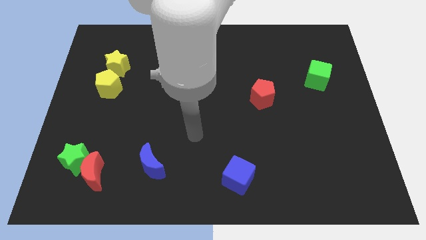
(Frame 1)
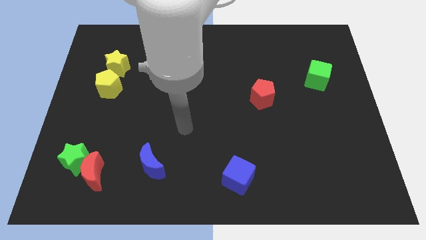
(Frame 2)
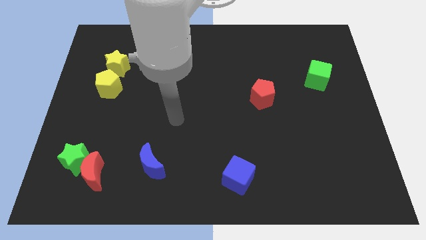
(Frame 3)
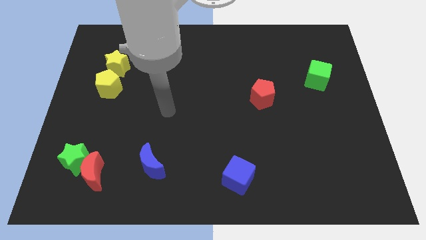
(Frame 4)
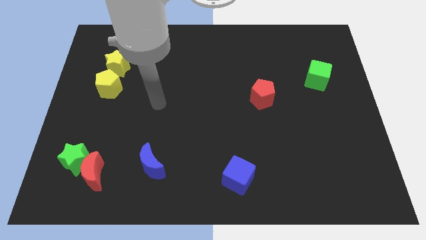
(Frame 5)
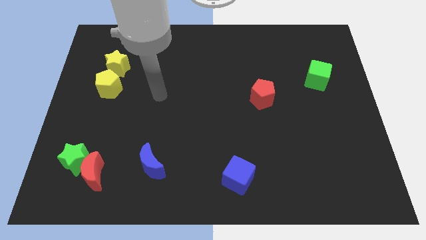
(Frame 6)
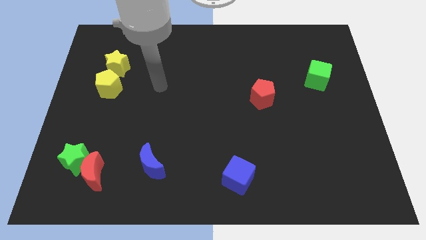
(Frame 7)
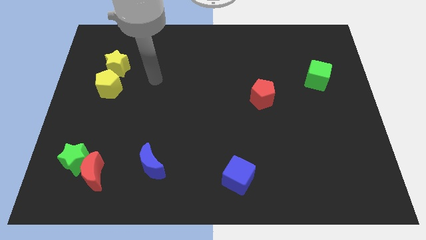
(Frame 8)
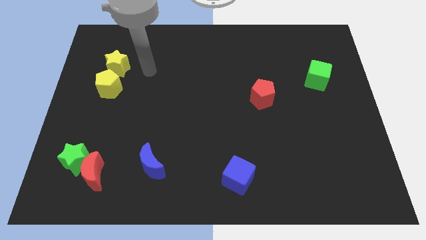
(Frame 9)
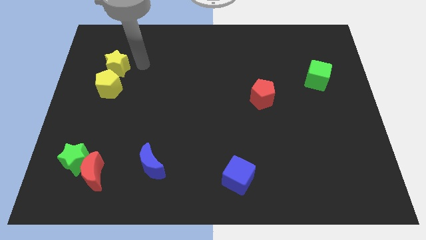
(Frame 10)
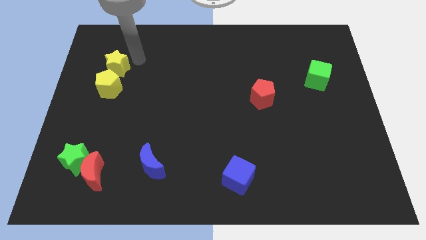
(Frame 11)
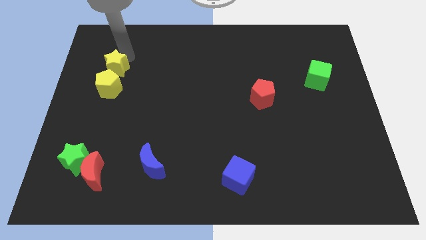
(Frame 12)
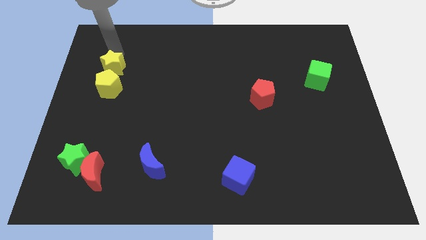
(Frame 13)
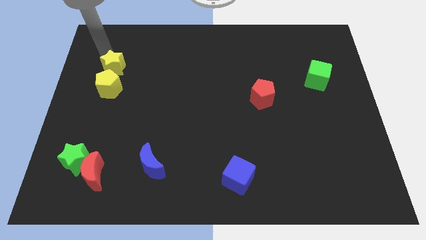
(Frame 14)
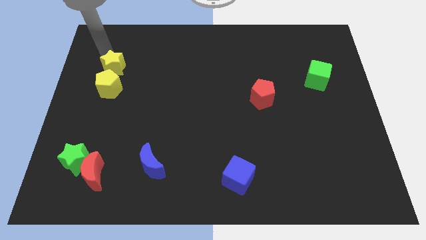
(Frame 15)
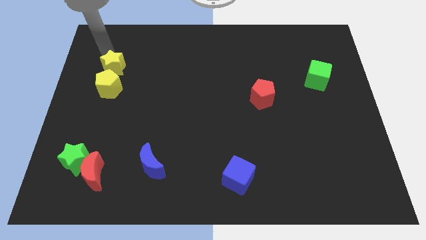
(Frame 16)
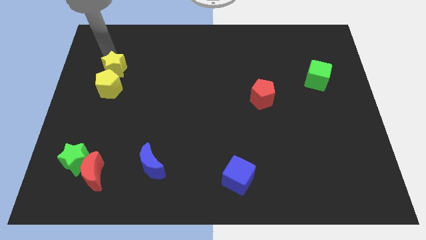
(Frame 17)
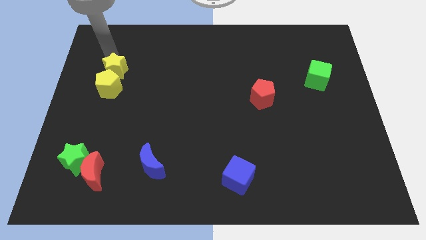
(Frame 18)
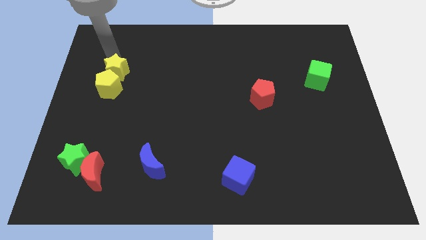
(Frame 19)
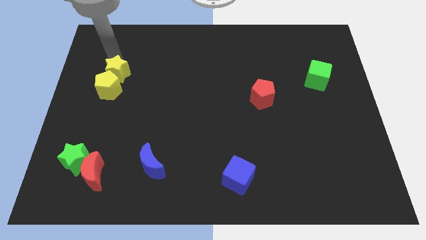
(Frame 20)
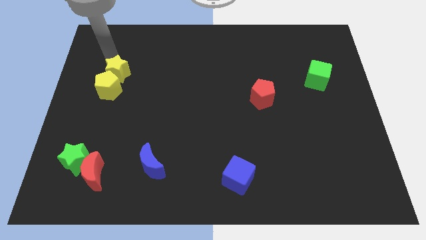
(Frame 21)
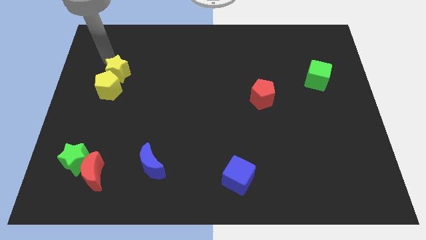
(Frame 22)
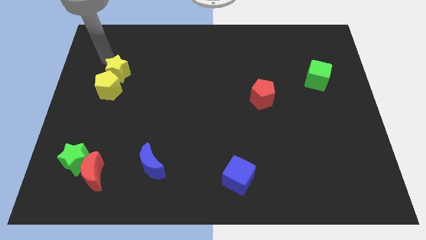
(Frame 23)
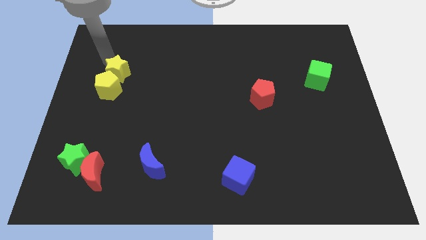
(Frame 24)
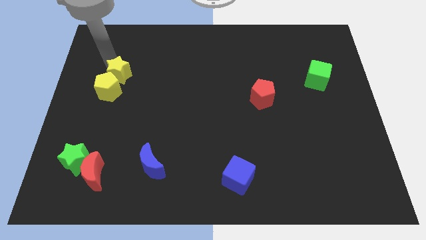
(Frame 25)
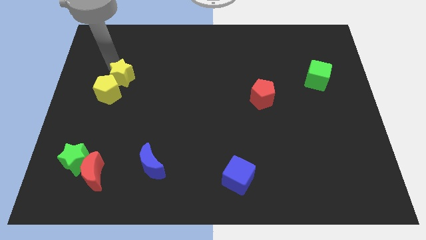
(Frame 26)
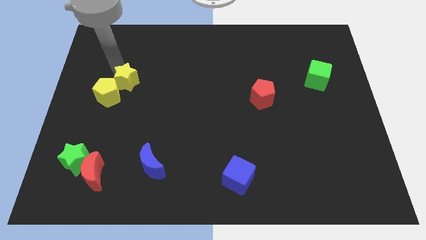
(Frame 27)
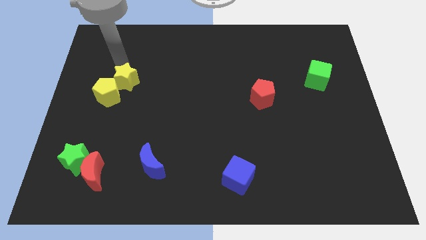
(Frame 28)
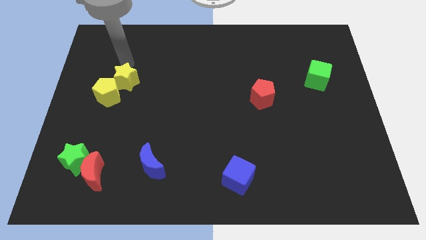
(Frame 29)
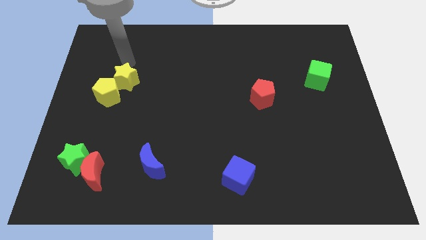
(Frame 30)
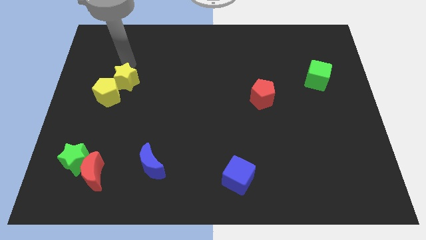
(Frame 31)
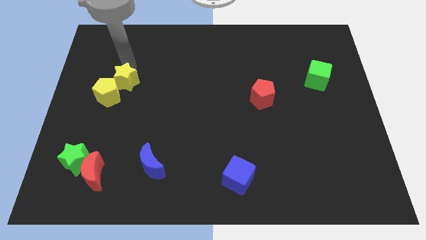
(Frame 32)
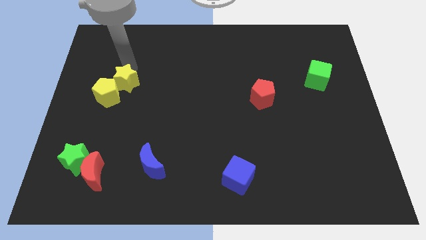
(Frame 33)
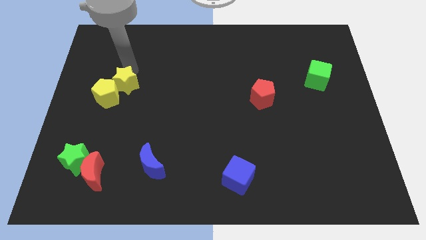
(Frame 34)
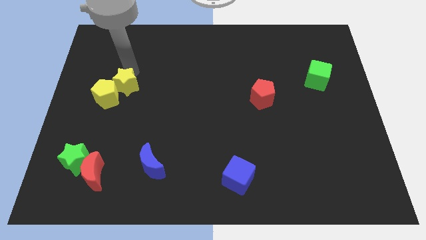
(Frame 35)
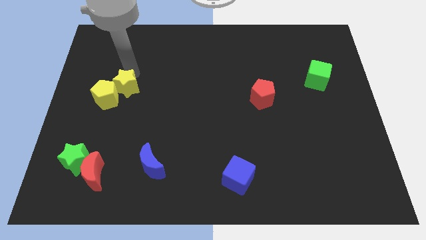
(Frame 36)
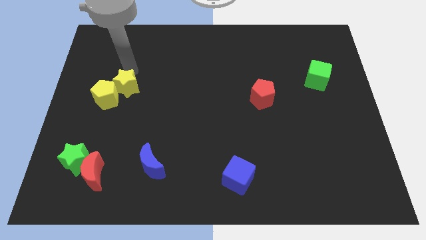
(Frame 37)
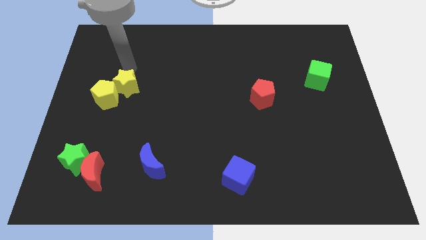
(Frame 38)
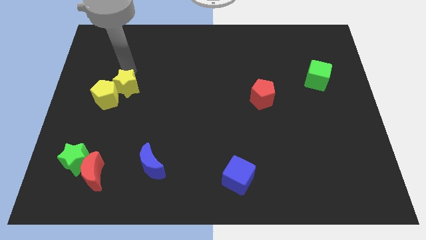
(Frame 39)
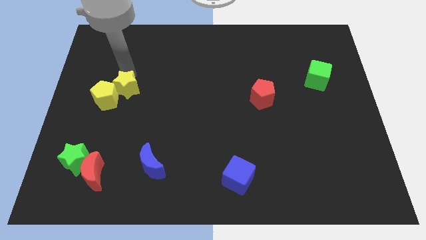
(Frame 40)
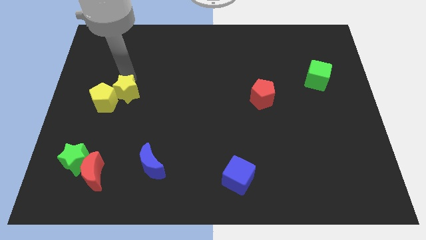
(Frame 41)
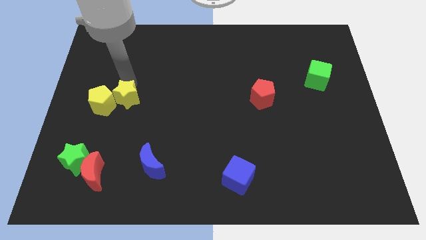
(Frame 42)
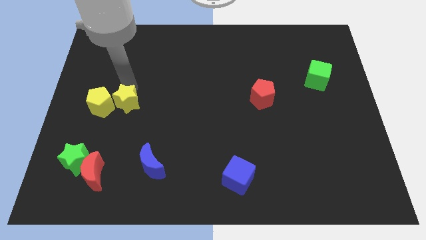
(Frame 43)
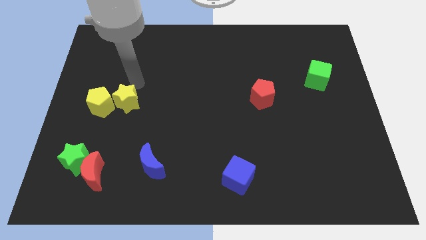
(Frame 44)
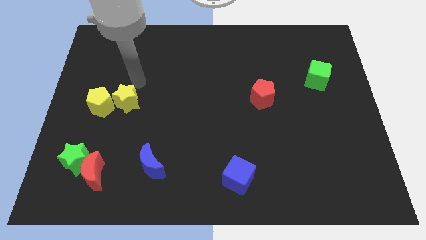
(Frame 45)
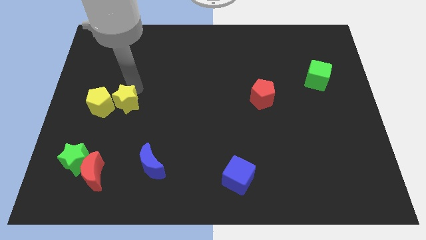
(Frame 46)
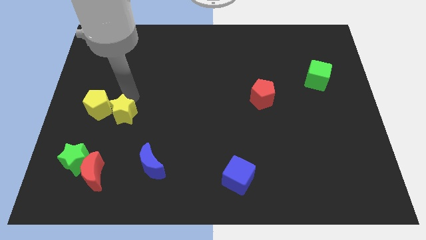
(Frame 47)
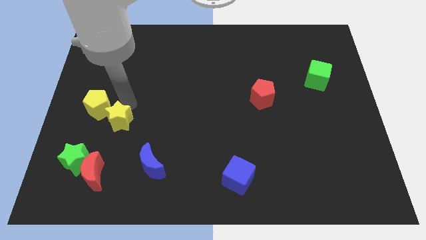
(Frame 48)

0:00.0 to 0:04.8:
move the yellow star to the top right side of the green star

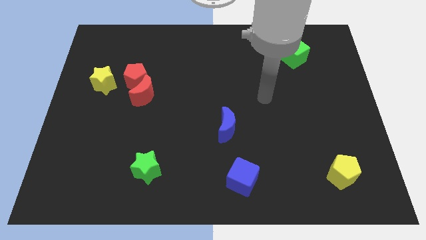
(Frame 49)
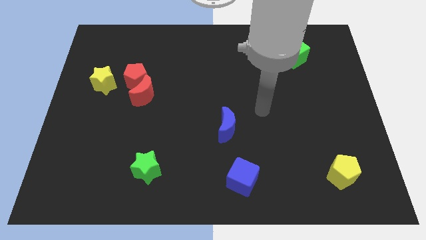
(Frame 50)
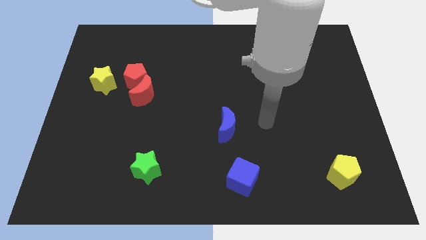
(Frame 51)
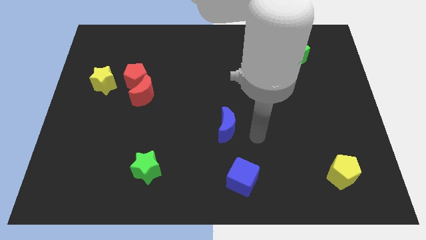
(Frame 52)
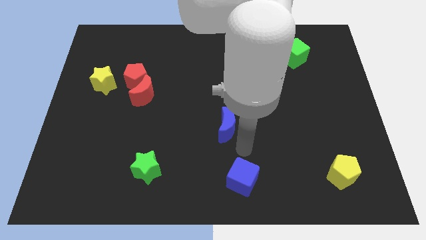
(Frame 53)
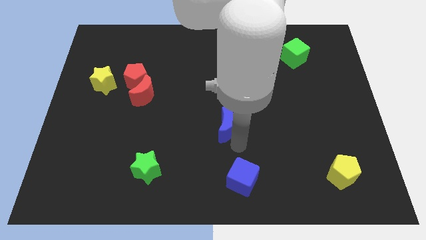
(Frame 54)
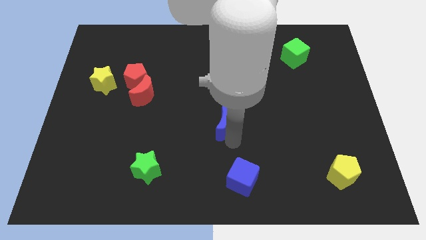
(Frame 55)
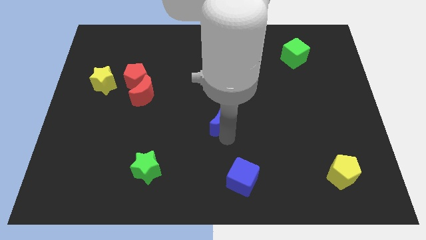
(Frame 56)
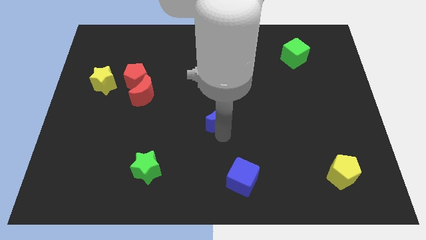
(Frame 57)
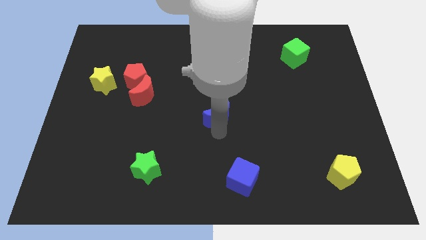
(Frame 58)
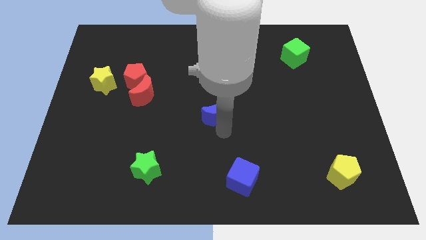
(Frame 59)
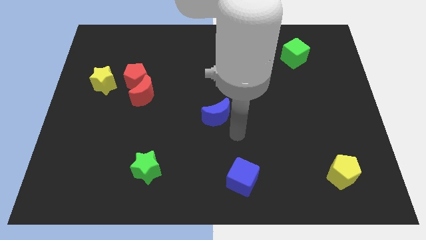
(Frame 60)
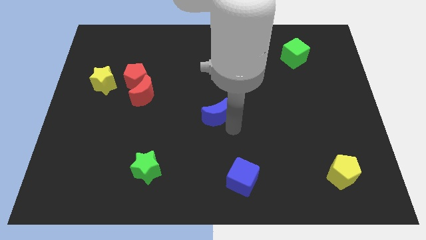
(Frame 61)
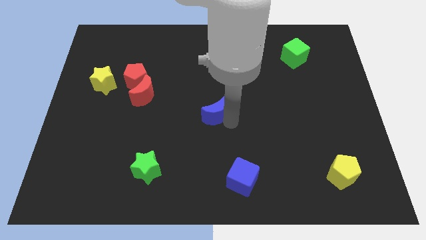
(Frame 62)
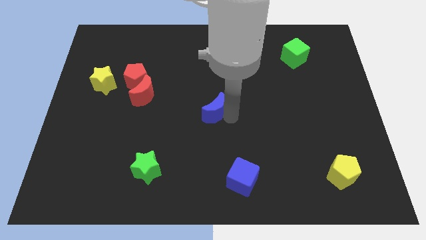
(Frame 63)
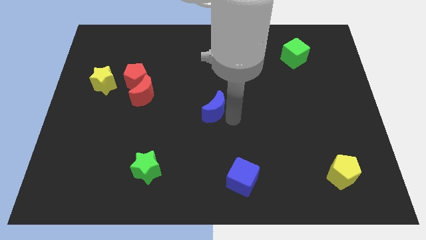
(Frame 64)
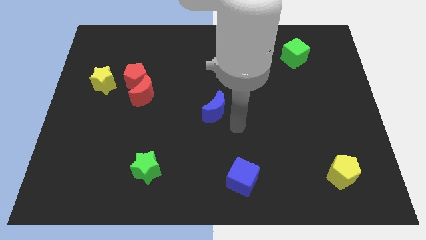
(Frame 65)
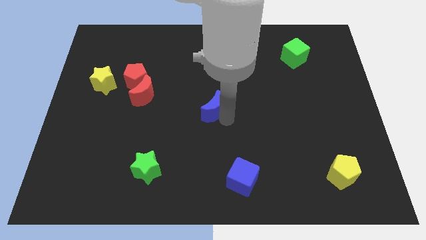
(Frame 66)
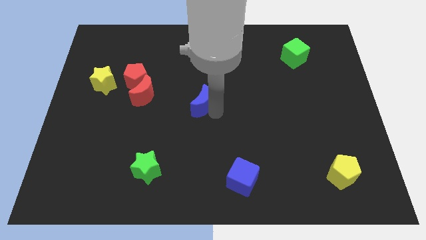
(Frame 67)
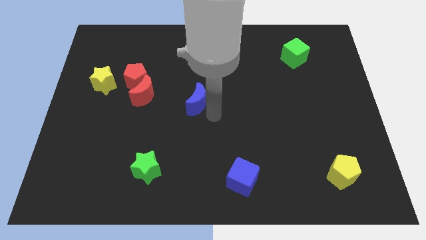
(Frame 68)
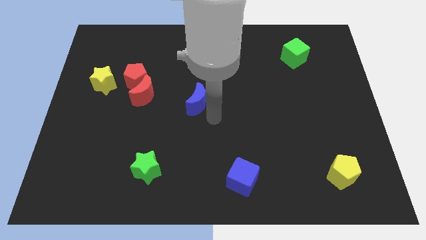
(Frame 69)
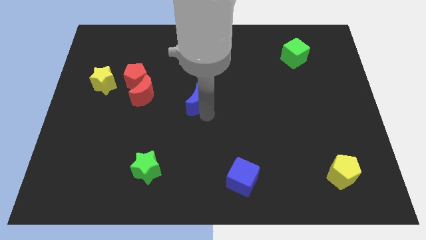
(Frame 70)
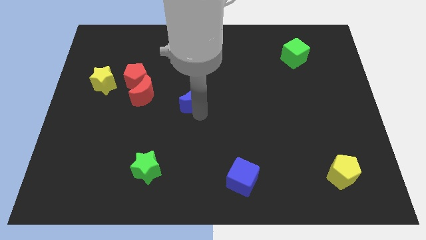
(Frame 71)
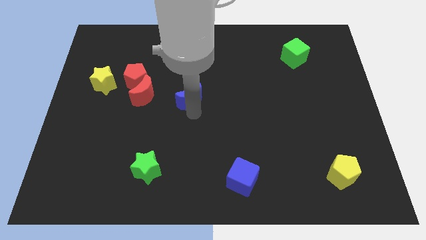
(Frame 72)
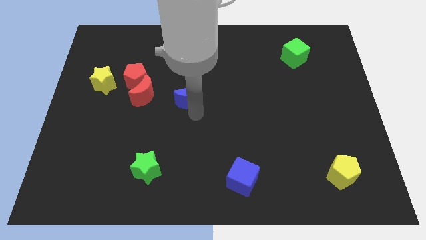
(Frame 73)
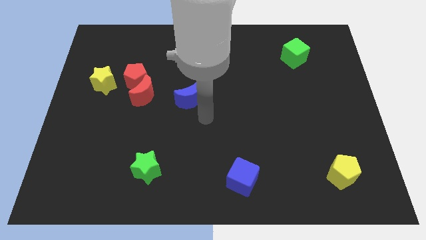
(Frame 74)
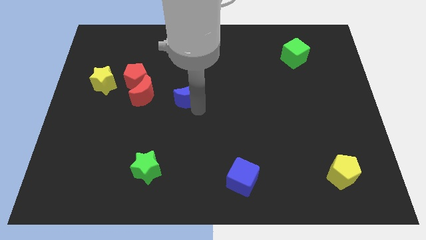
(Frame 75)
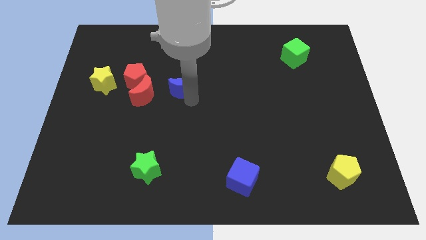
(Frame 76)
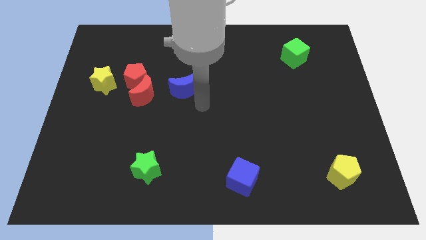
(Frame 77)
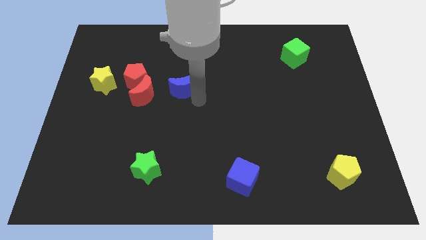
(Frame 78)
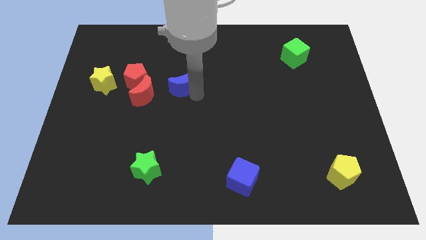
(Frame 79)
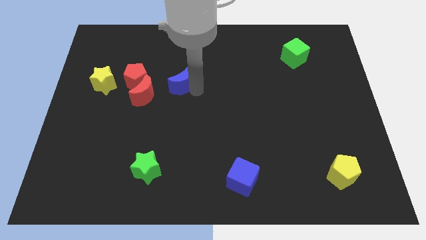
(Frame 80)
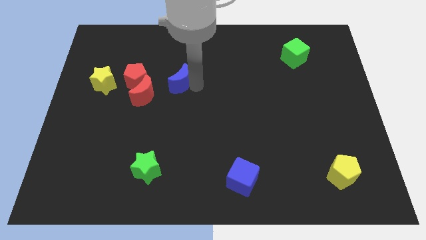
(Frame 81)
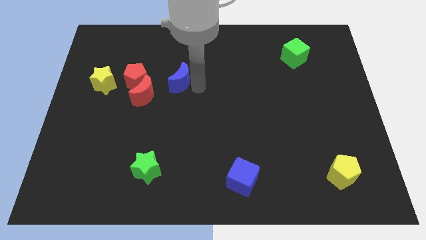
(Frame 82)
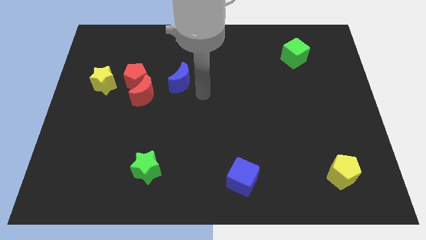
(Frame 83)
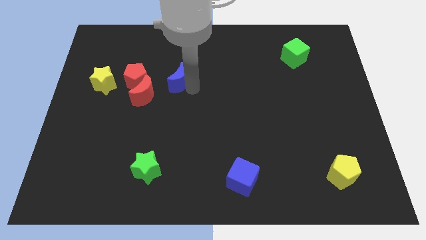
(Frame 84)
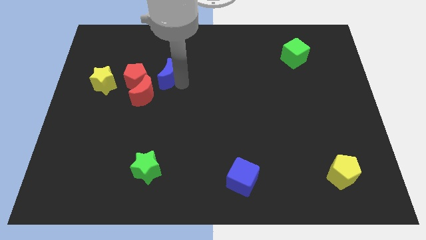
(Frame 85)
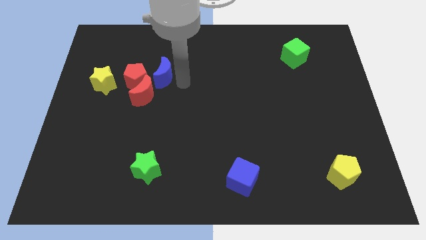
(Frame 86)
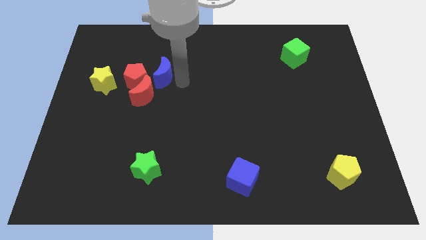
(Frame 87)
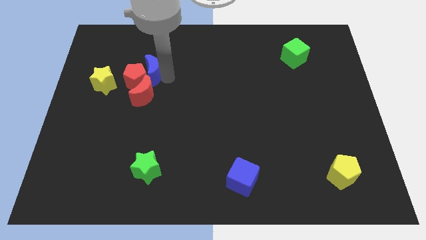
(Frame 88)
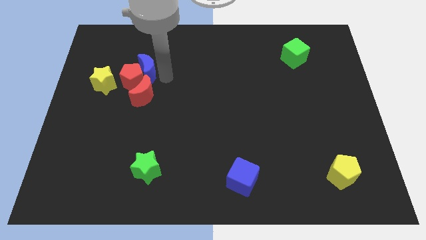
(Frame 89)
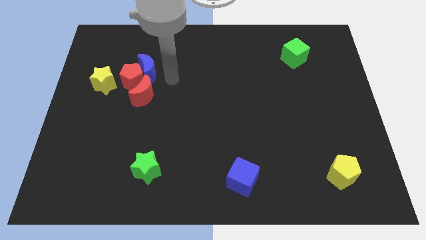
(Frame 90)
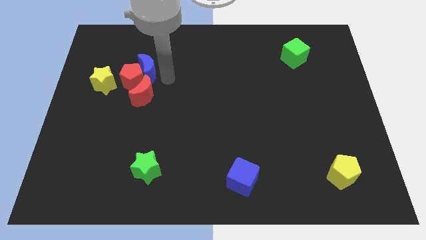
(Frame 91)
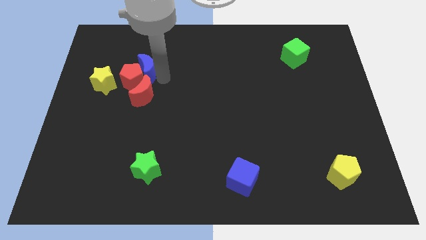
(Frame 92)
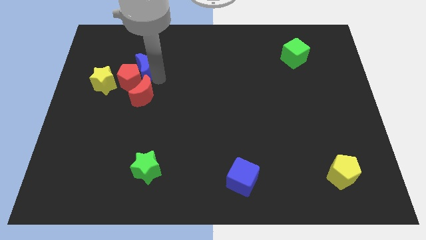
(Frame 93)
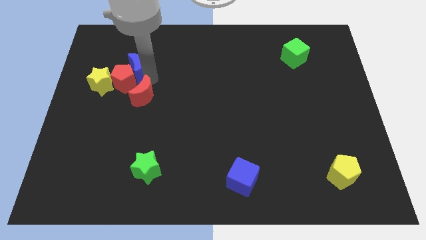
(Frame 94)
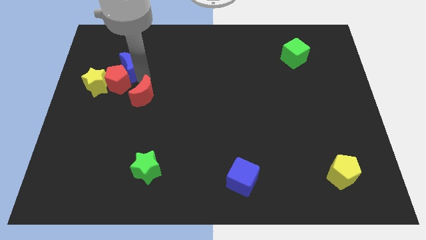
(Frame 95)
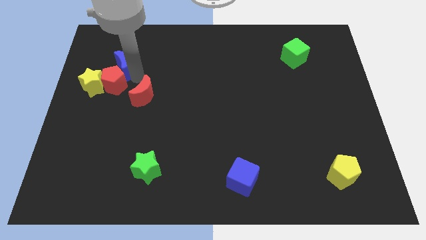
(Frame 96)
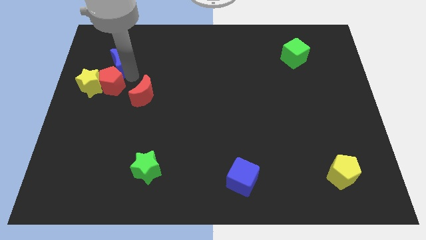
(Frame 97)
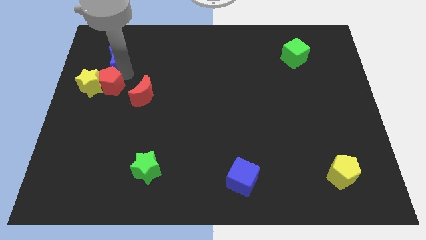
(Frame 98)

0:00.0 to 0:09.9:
push the blue moon to the top left of the red pentagon
